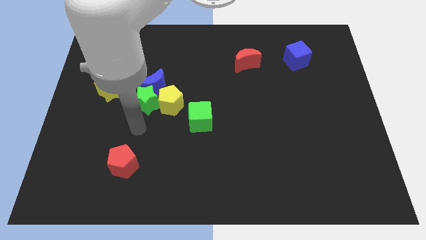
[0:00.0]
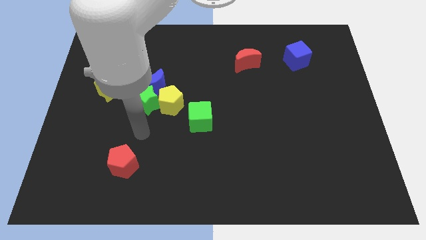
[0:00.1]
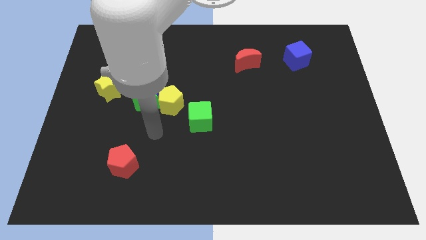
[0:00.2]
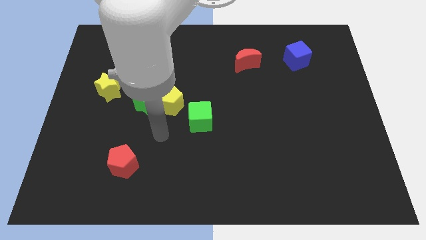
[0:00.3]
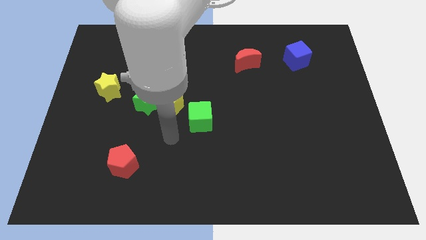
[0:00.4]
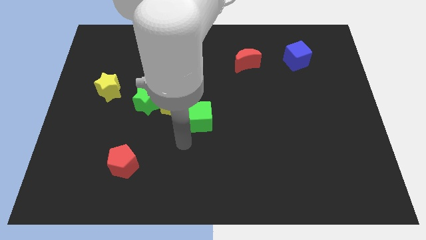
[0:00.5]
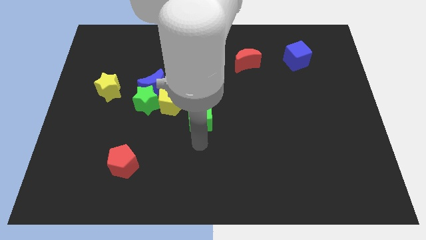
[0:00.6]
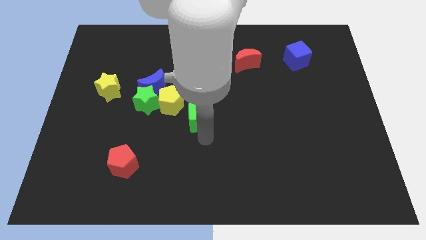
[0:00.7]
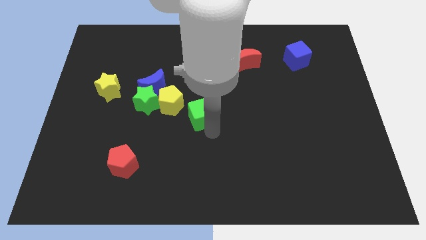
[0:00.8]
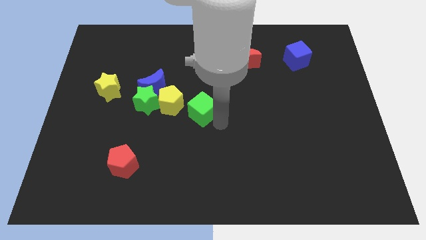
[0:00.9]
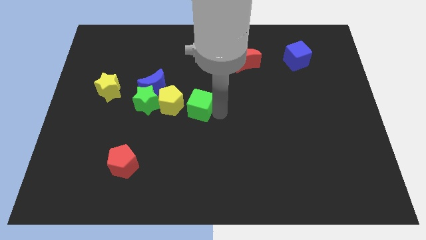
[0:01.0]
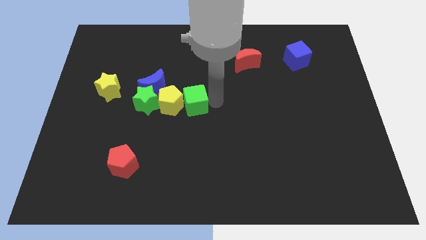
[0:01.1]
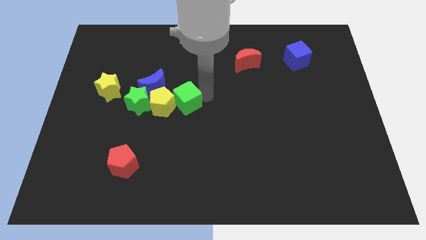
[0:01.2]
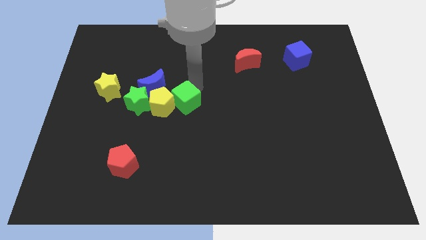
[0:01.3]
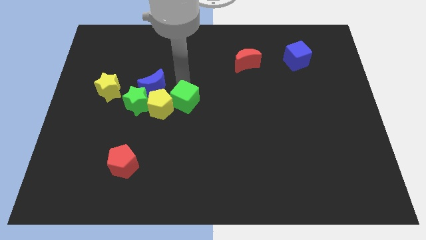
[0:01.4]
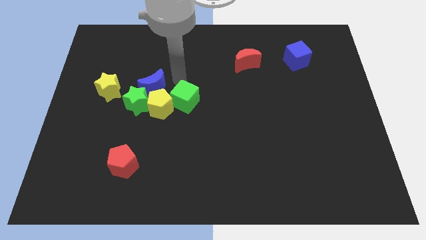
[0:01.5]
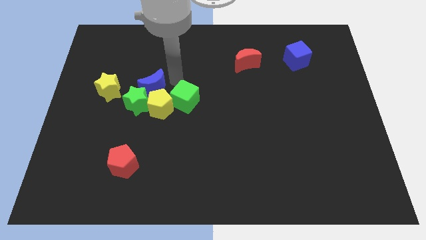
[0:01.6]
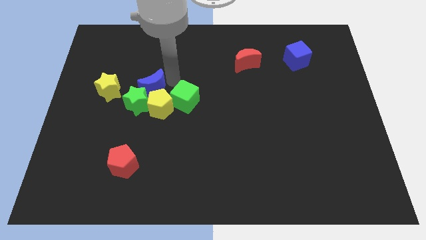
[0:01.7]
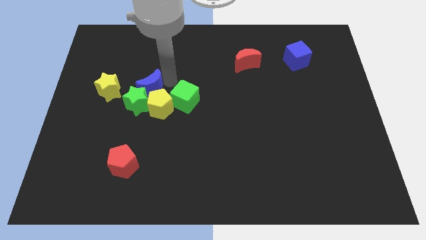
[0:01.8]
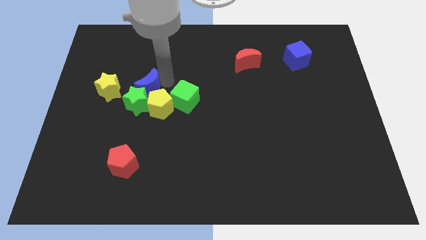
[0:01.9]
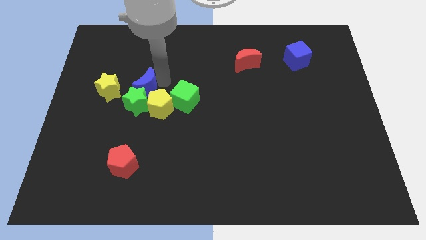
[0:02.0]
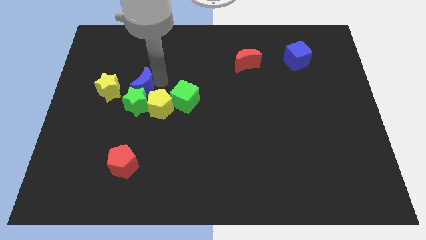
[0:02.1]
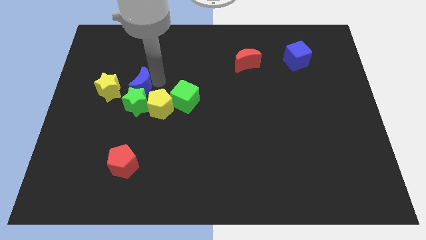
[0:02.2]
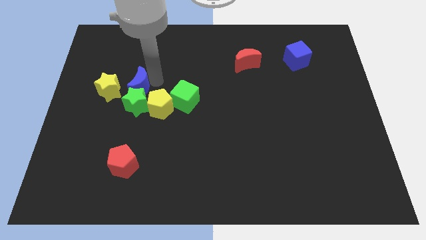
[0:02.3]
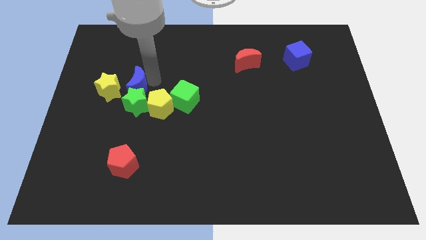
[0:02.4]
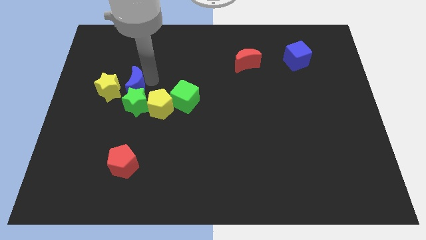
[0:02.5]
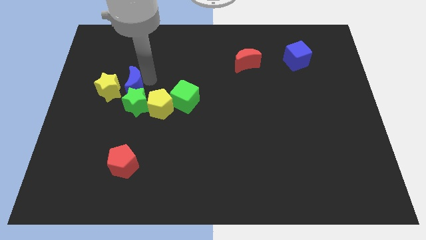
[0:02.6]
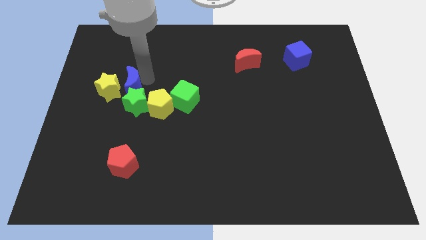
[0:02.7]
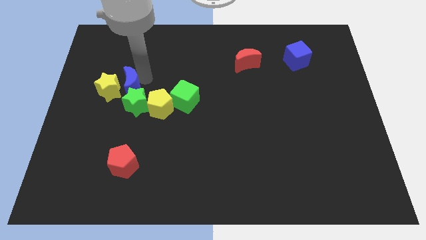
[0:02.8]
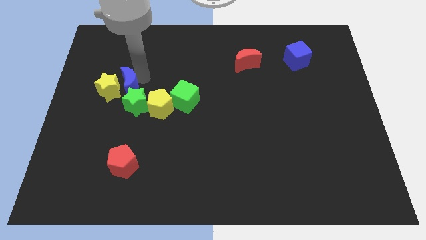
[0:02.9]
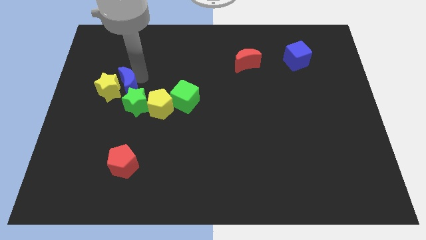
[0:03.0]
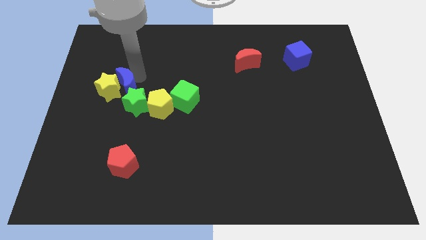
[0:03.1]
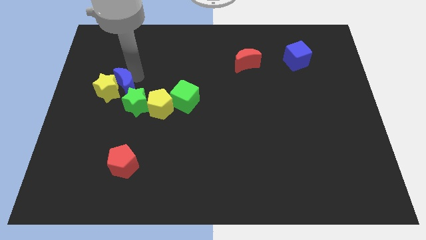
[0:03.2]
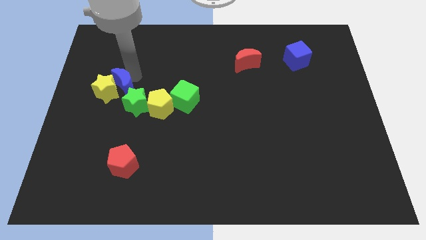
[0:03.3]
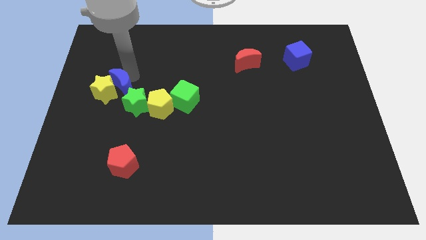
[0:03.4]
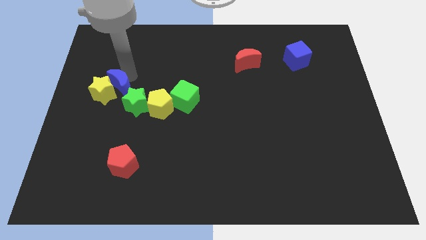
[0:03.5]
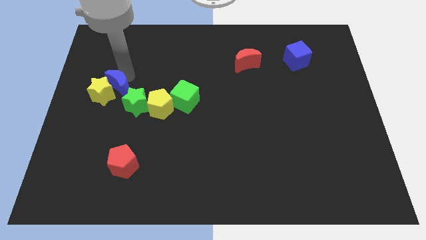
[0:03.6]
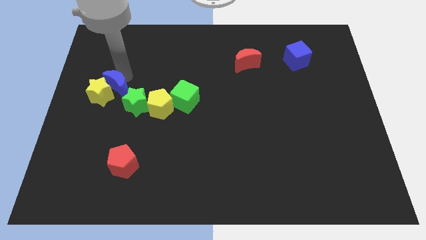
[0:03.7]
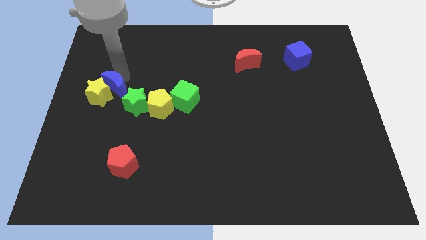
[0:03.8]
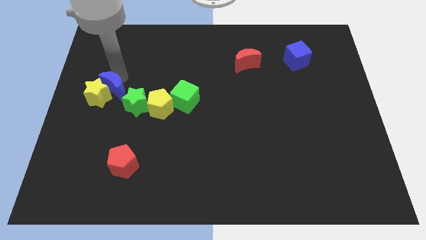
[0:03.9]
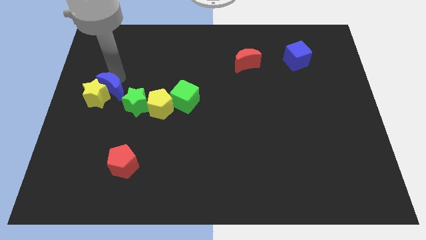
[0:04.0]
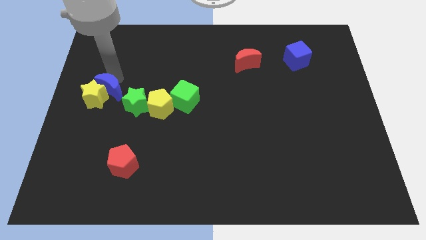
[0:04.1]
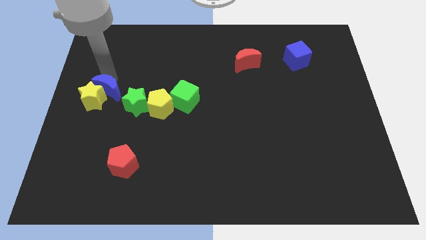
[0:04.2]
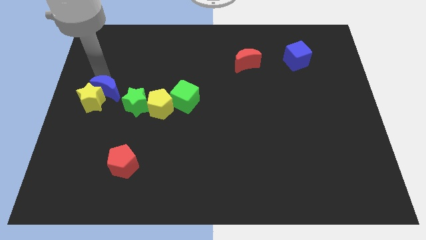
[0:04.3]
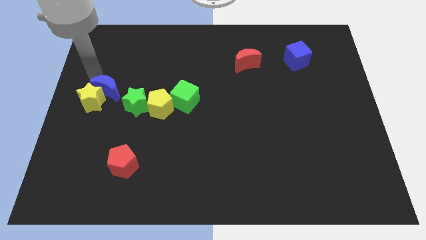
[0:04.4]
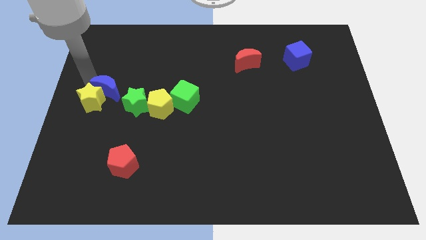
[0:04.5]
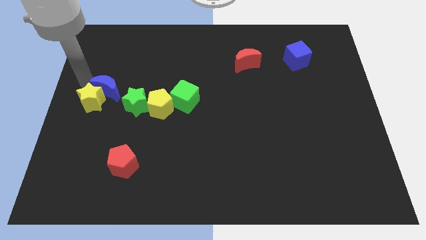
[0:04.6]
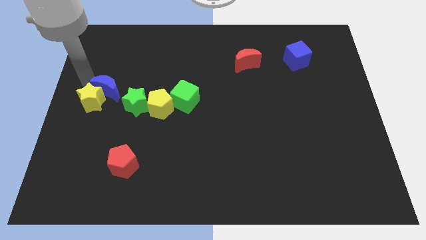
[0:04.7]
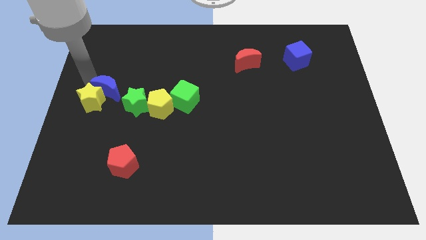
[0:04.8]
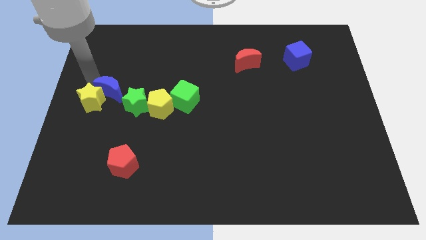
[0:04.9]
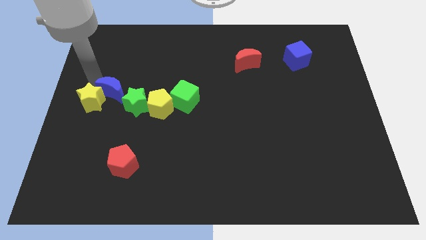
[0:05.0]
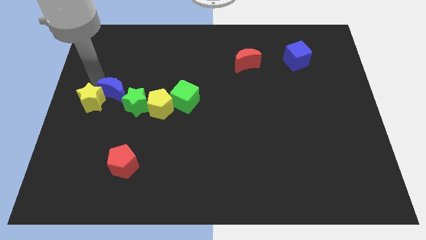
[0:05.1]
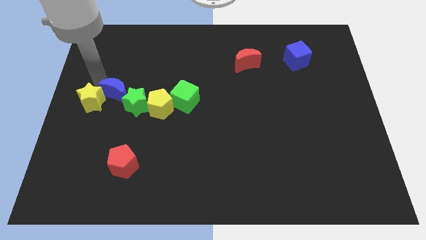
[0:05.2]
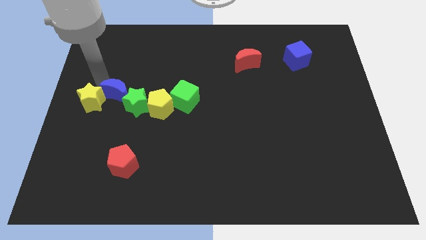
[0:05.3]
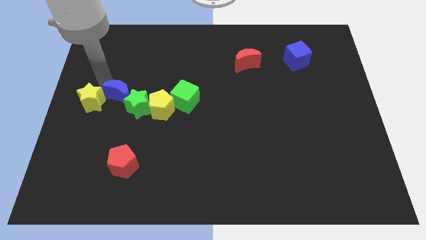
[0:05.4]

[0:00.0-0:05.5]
move the blue moon a little down and then to the left

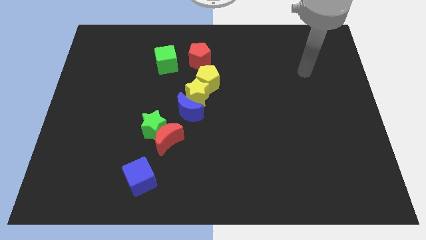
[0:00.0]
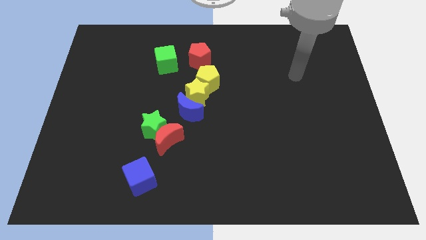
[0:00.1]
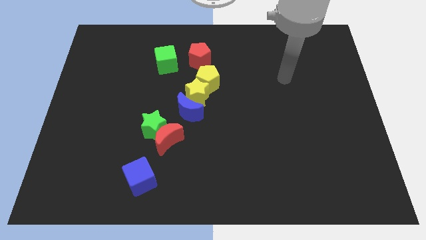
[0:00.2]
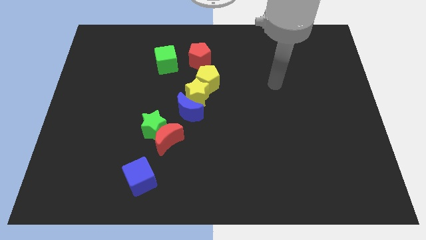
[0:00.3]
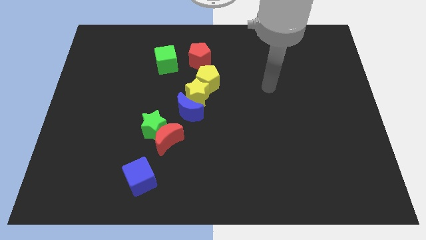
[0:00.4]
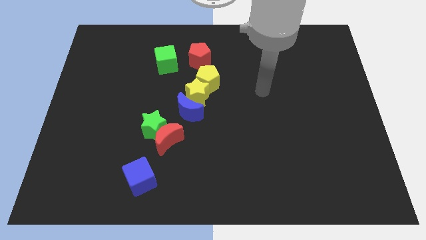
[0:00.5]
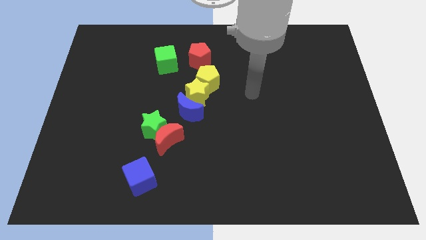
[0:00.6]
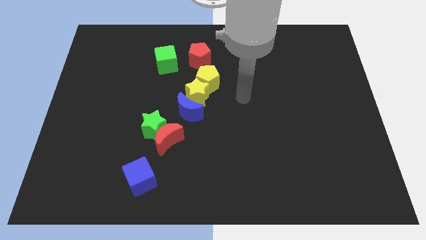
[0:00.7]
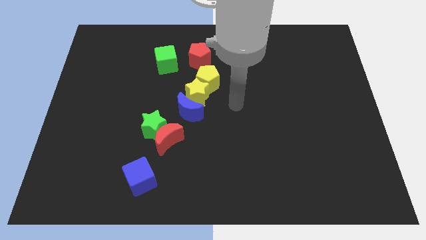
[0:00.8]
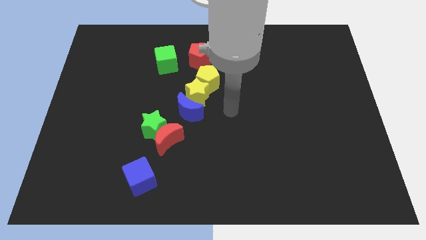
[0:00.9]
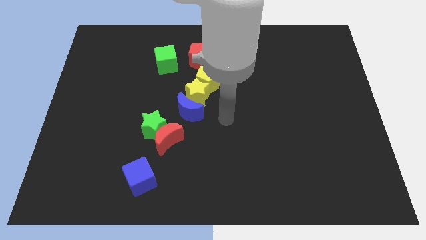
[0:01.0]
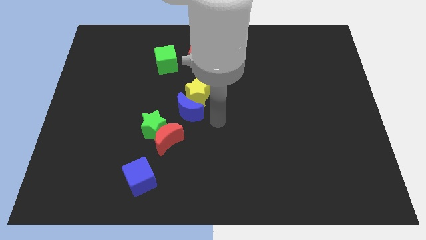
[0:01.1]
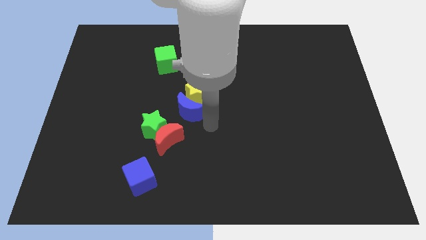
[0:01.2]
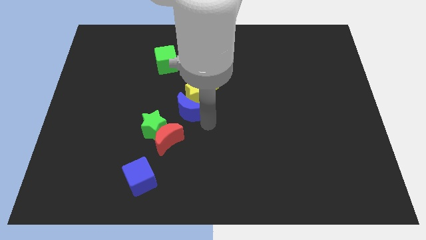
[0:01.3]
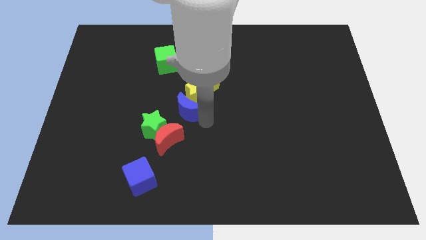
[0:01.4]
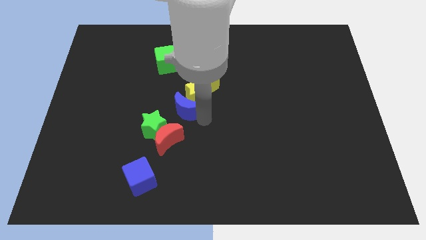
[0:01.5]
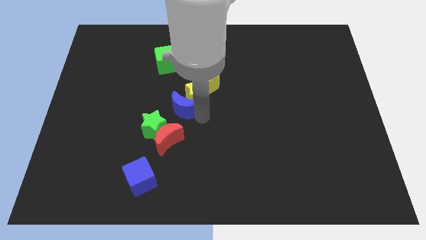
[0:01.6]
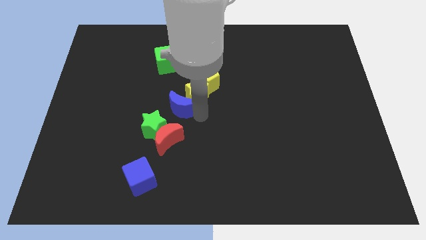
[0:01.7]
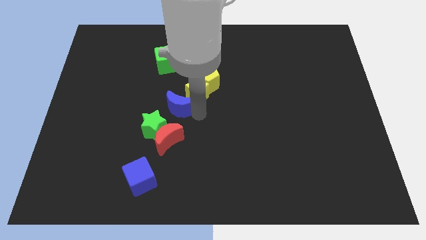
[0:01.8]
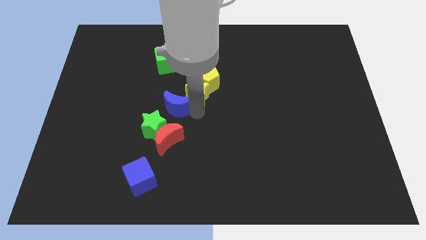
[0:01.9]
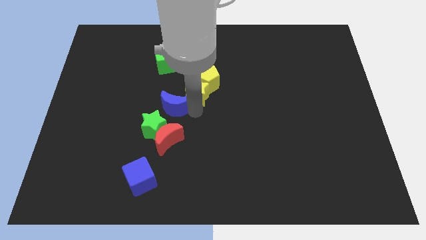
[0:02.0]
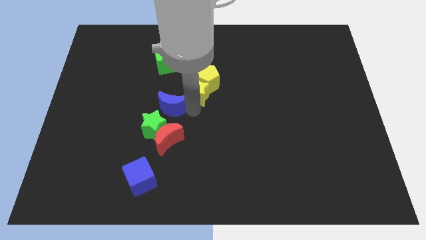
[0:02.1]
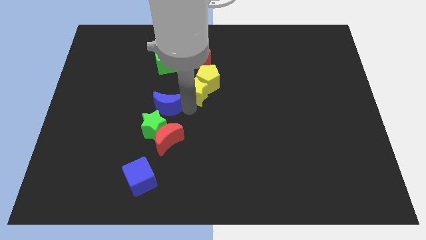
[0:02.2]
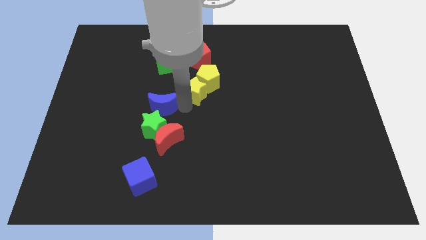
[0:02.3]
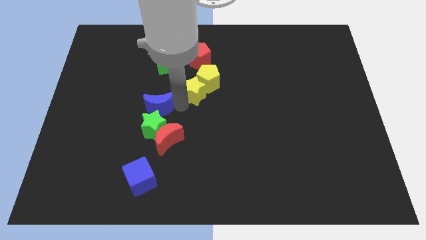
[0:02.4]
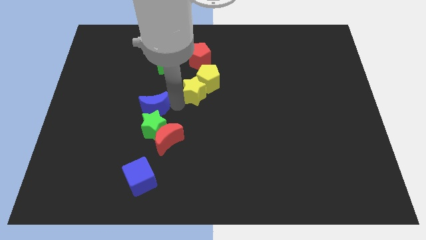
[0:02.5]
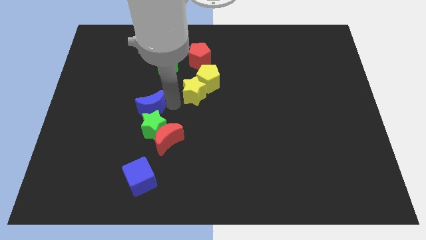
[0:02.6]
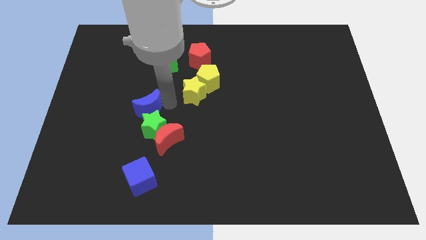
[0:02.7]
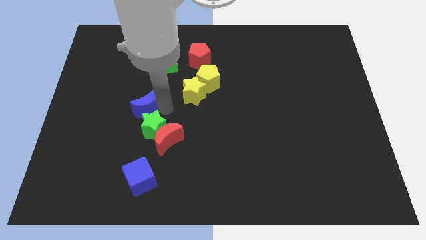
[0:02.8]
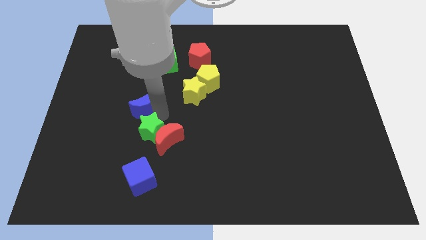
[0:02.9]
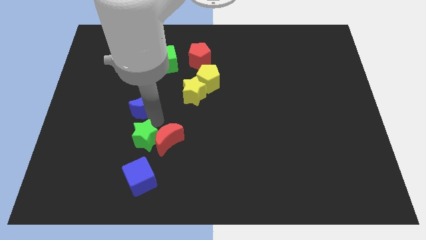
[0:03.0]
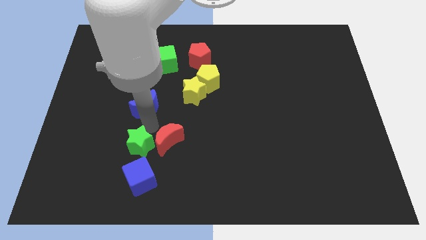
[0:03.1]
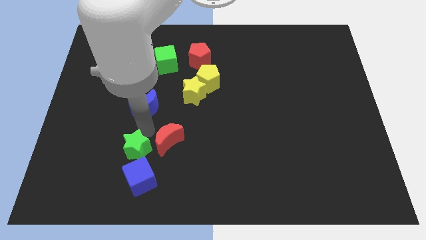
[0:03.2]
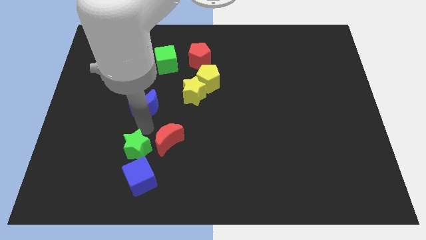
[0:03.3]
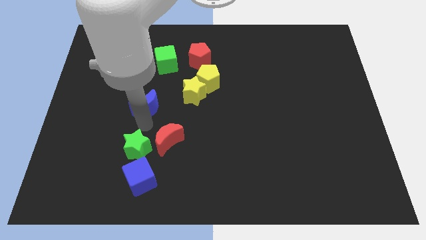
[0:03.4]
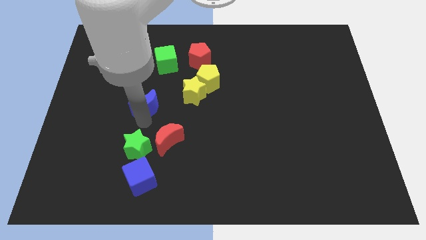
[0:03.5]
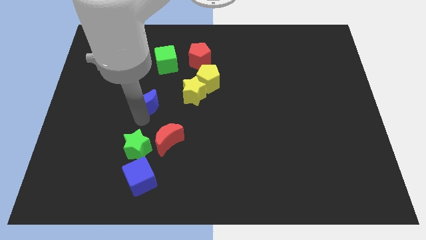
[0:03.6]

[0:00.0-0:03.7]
slide the blue moon slightly upwards and then left
